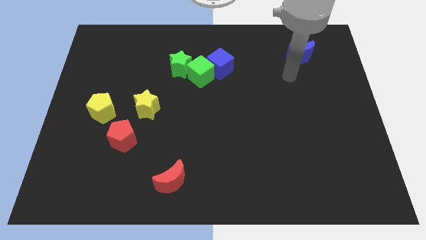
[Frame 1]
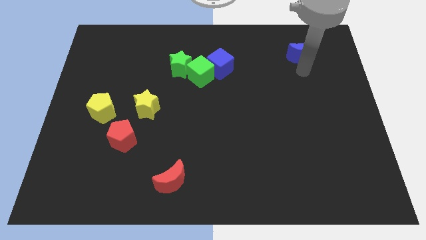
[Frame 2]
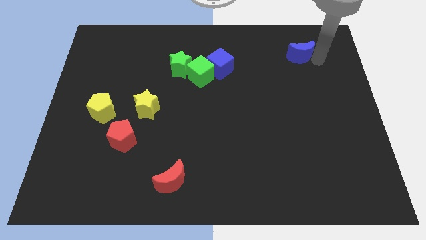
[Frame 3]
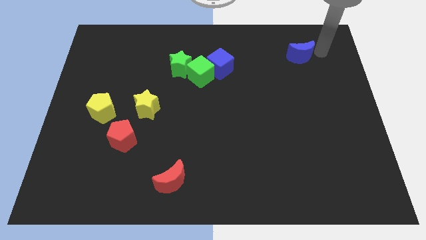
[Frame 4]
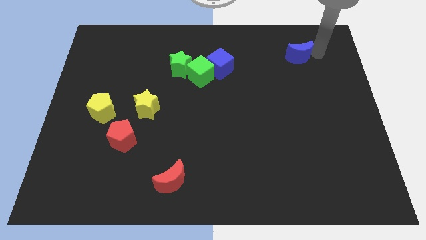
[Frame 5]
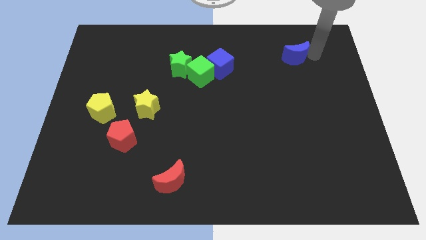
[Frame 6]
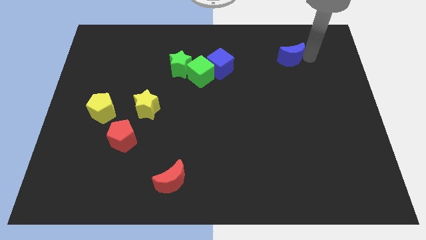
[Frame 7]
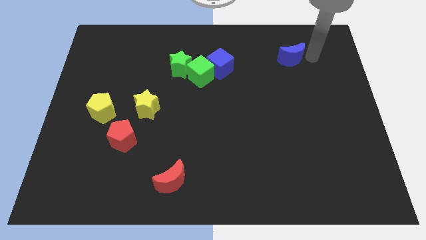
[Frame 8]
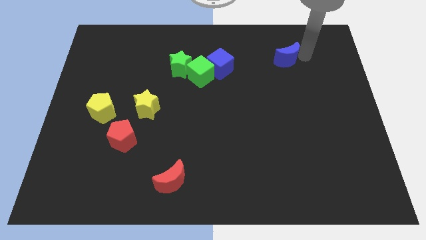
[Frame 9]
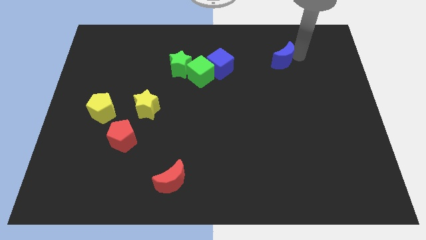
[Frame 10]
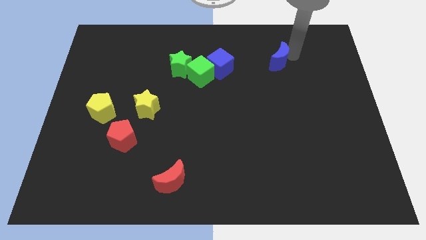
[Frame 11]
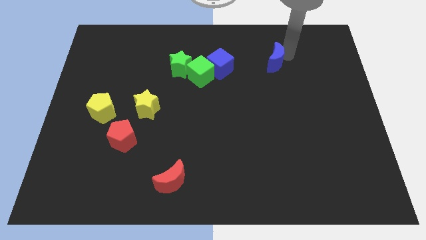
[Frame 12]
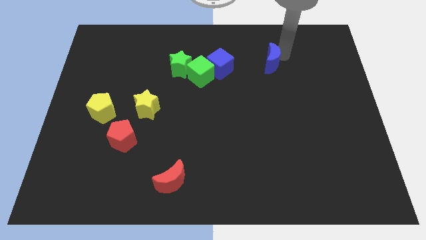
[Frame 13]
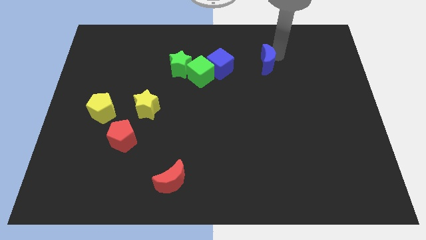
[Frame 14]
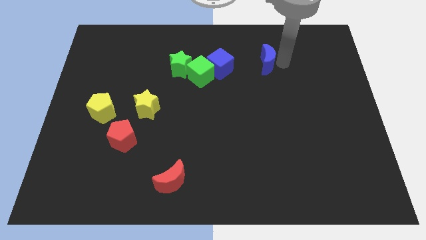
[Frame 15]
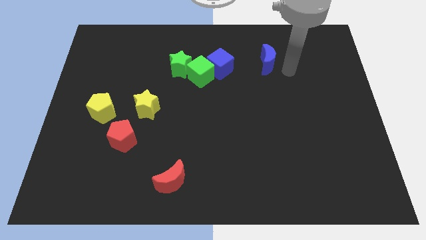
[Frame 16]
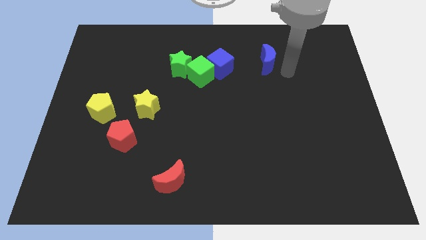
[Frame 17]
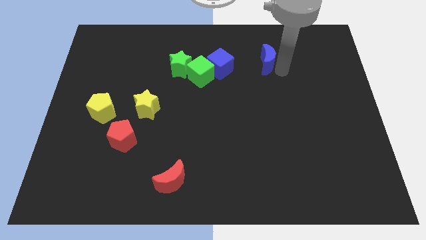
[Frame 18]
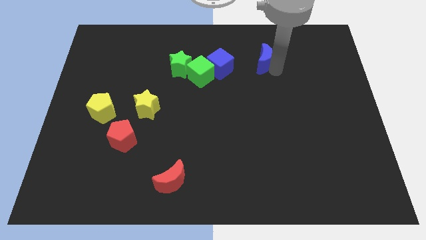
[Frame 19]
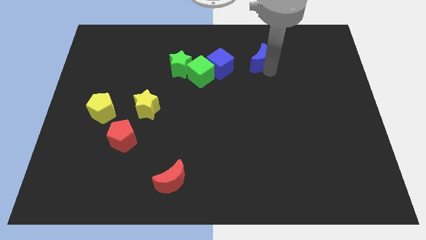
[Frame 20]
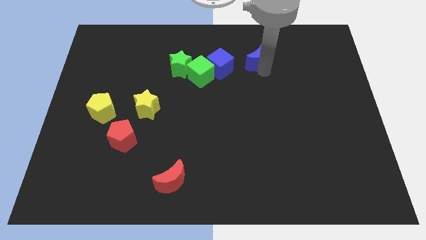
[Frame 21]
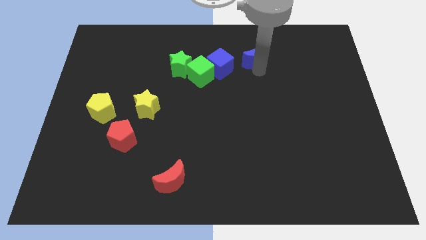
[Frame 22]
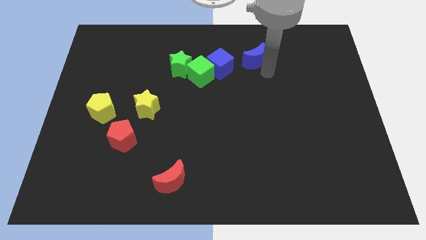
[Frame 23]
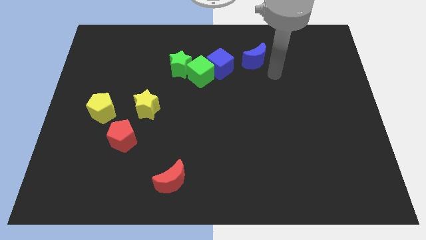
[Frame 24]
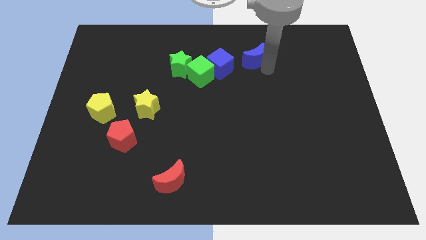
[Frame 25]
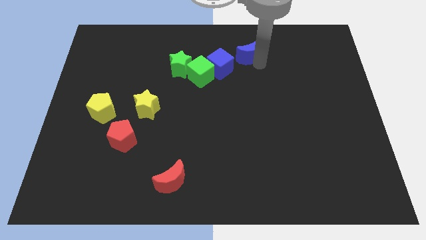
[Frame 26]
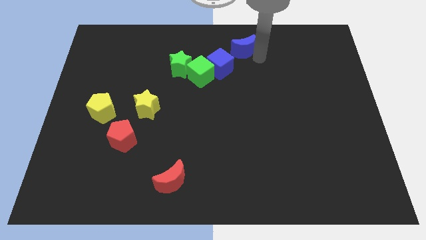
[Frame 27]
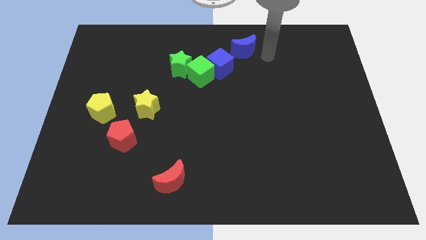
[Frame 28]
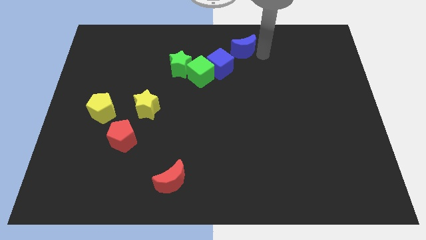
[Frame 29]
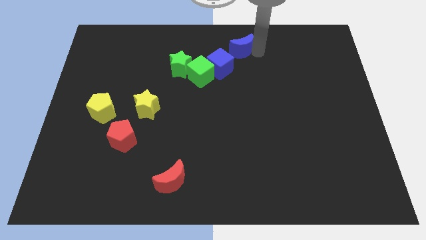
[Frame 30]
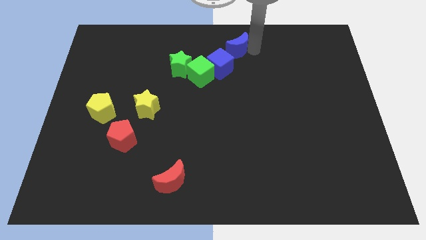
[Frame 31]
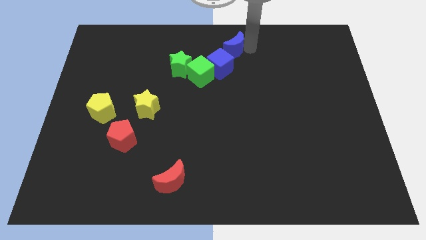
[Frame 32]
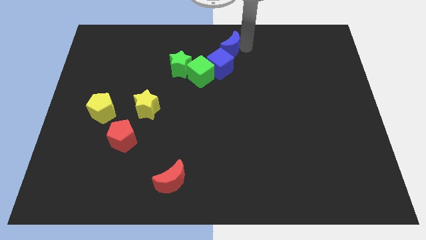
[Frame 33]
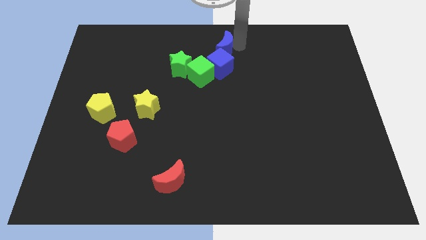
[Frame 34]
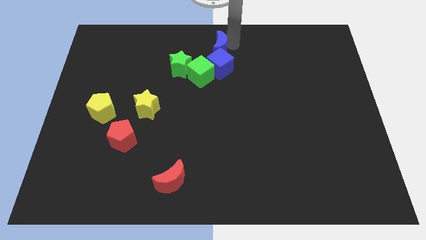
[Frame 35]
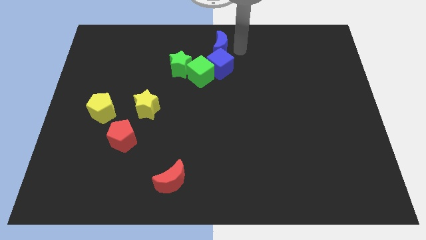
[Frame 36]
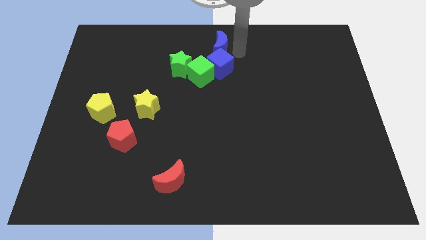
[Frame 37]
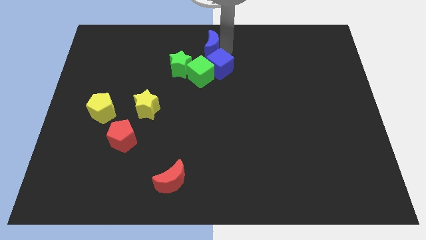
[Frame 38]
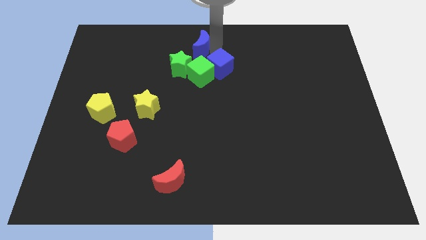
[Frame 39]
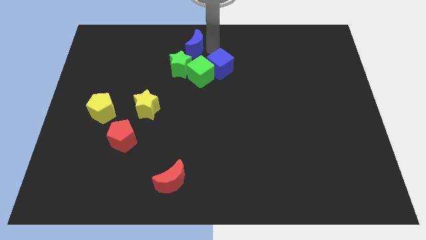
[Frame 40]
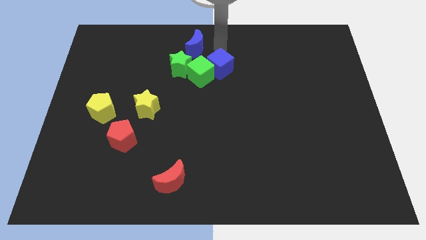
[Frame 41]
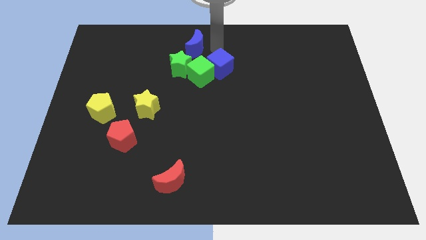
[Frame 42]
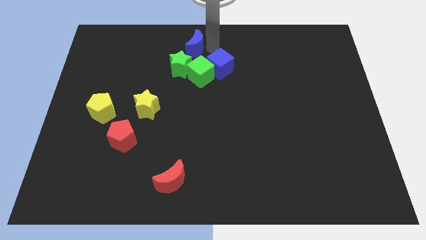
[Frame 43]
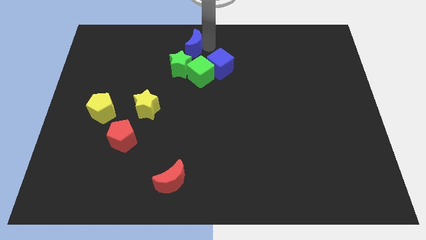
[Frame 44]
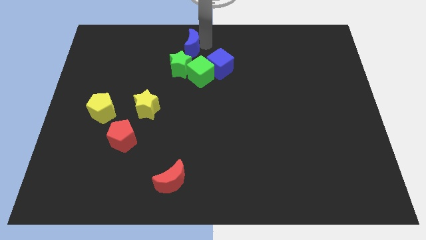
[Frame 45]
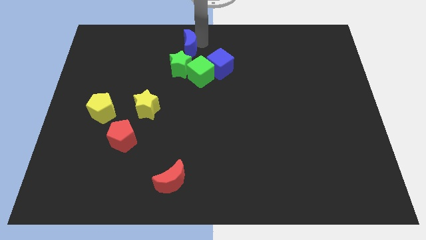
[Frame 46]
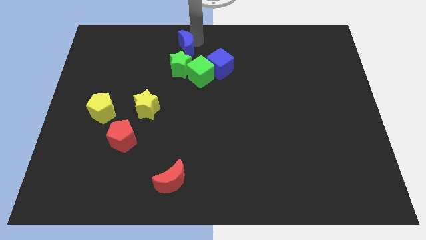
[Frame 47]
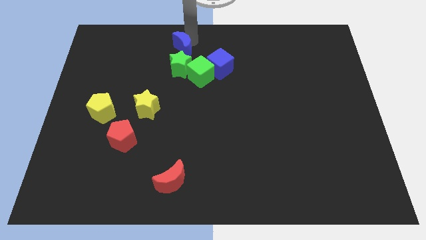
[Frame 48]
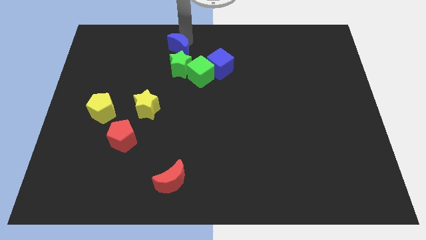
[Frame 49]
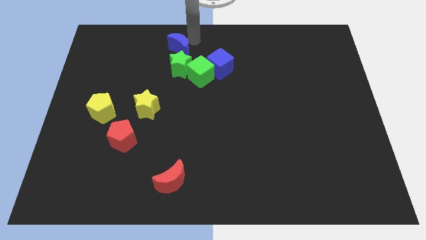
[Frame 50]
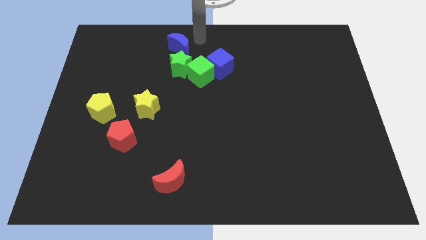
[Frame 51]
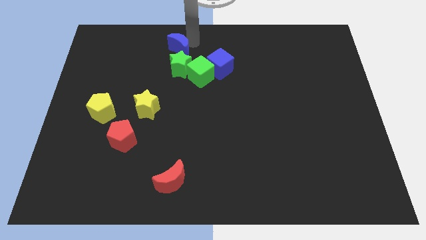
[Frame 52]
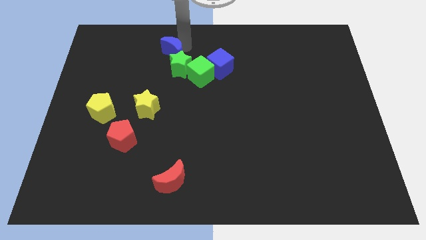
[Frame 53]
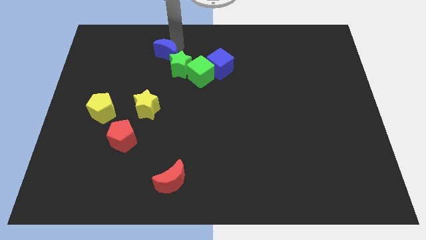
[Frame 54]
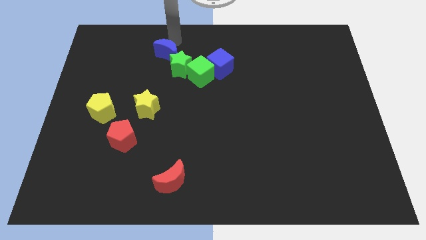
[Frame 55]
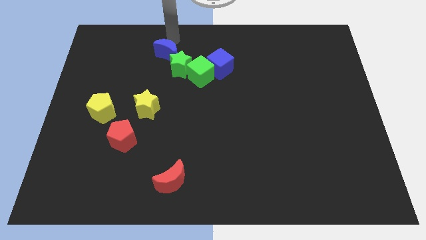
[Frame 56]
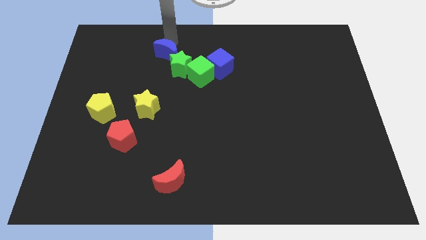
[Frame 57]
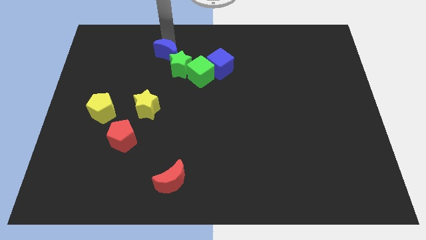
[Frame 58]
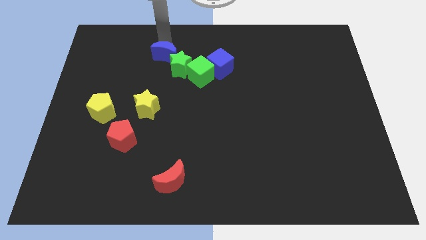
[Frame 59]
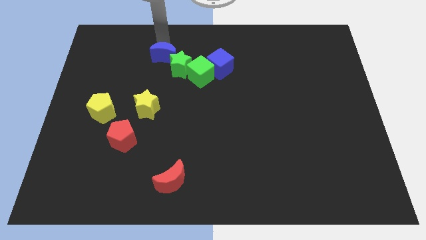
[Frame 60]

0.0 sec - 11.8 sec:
move the blue moon to the left of the blue cube

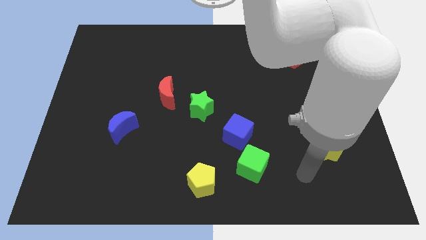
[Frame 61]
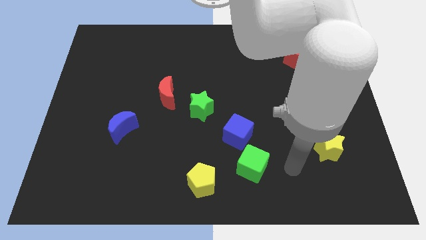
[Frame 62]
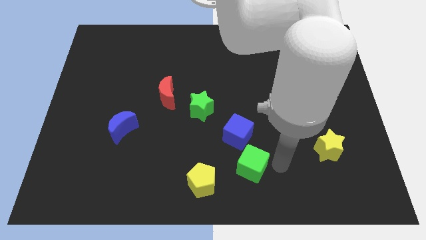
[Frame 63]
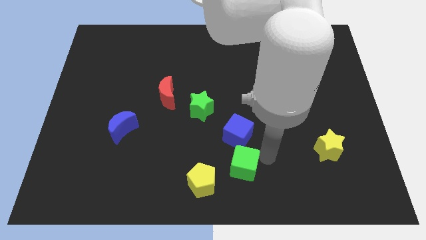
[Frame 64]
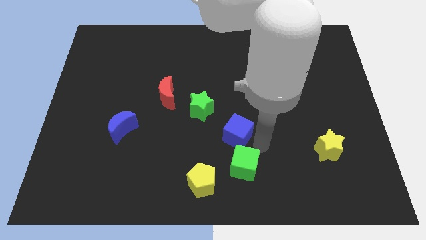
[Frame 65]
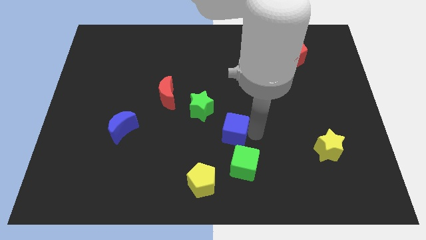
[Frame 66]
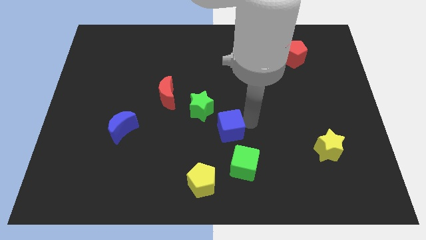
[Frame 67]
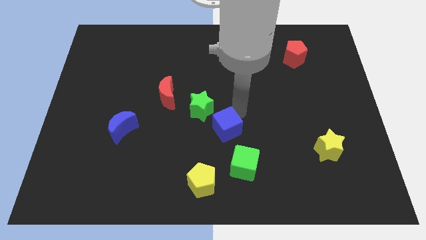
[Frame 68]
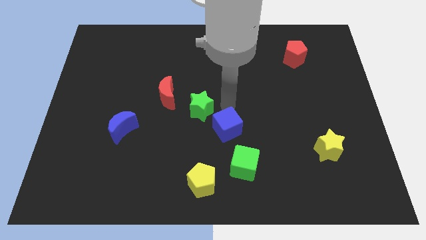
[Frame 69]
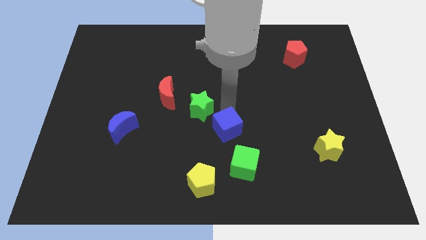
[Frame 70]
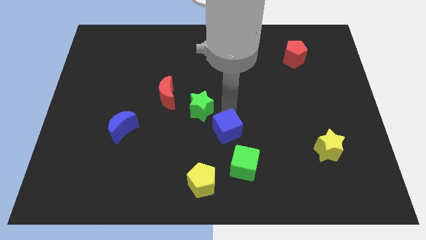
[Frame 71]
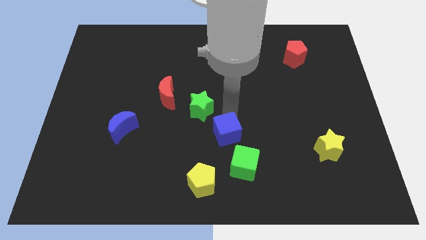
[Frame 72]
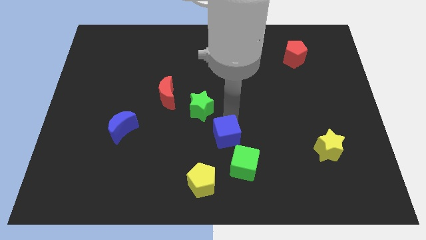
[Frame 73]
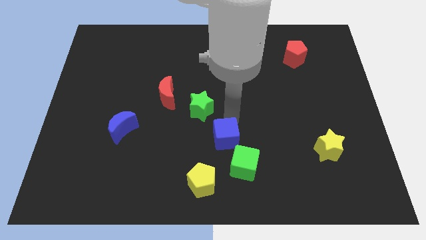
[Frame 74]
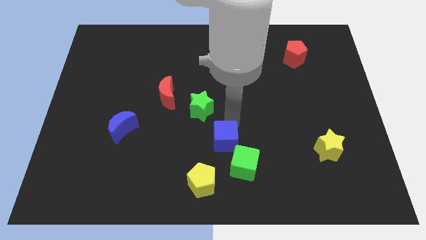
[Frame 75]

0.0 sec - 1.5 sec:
push the blue cube to the top right side of the yellow pentagon

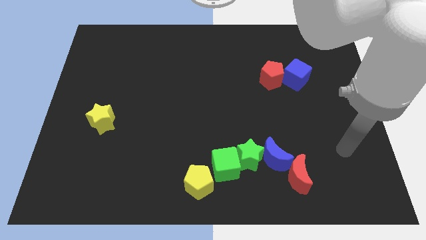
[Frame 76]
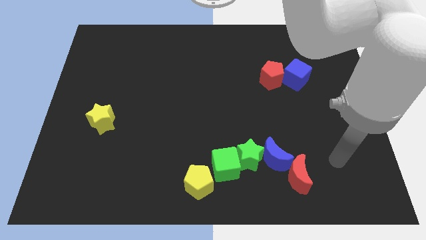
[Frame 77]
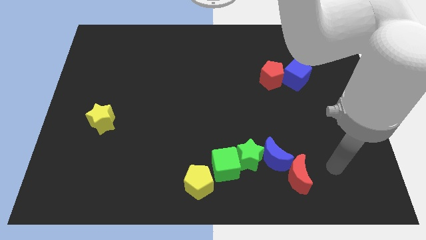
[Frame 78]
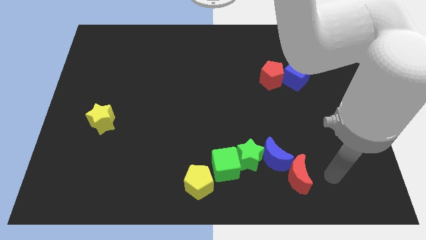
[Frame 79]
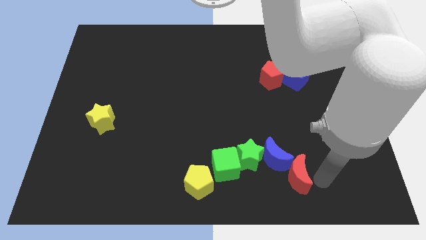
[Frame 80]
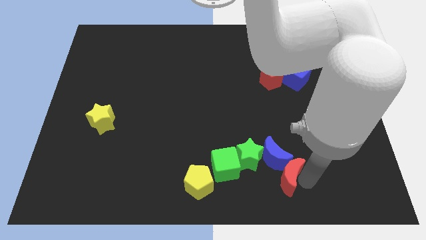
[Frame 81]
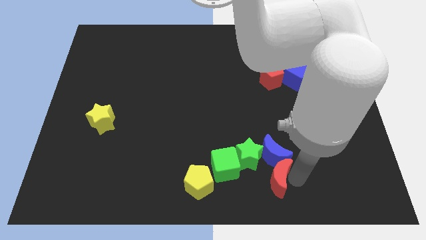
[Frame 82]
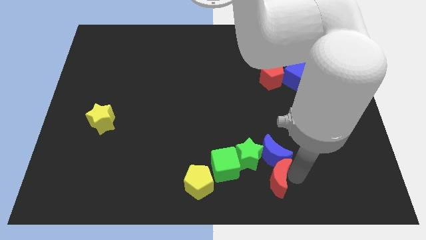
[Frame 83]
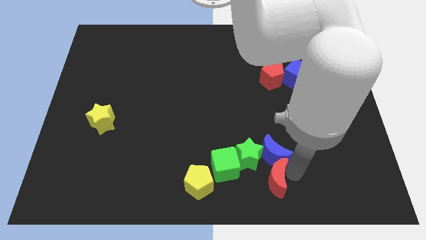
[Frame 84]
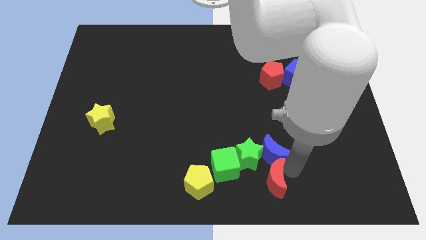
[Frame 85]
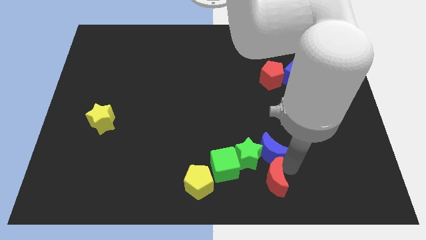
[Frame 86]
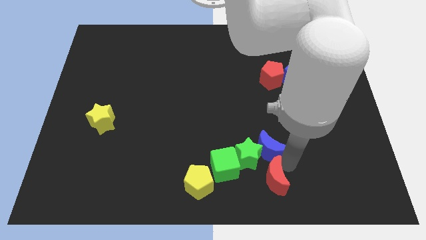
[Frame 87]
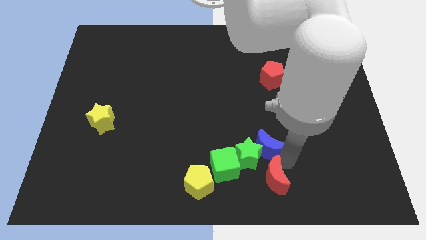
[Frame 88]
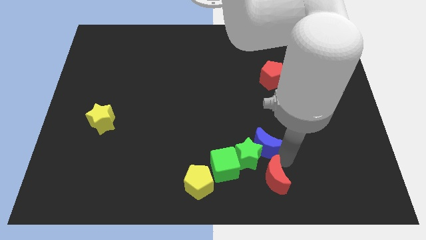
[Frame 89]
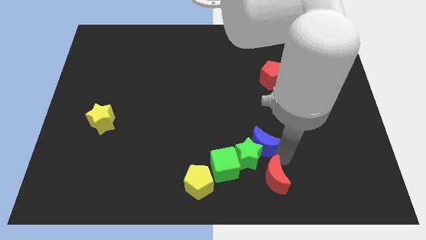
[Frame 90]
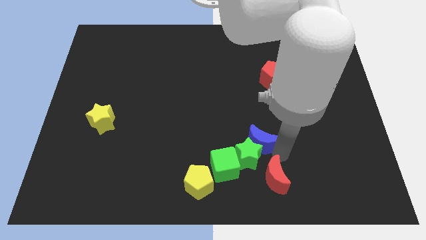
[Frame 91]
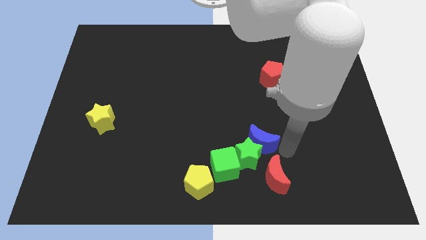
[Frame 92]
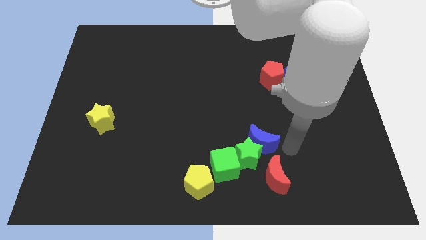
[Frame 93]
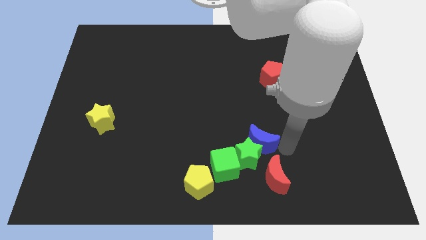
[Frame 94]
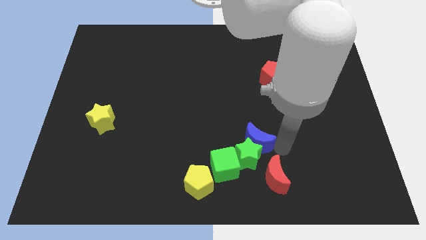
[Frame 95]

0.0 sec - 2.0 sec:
move the blue moon diagonally up and to the left of the green star
